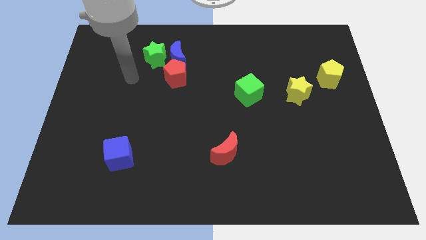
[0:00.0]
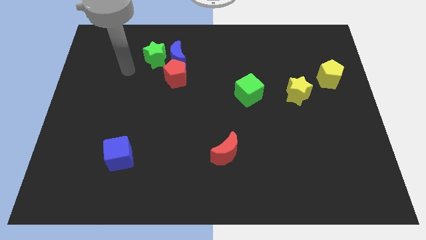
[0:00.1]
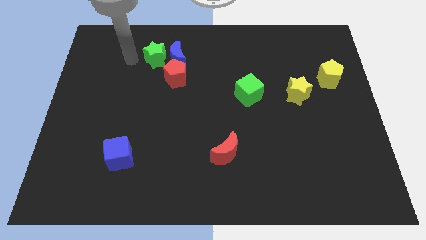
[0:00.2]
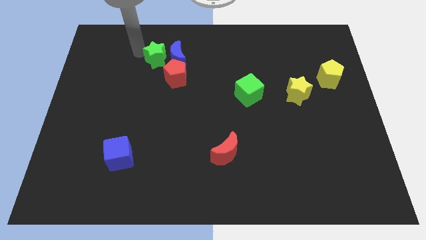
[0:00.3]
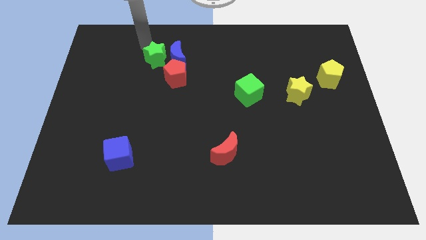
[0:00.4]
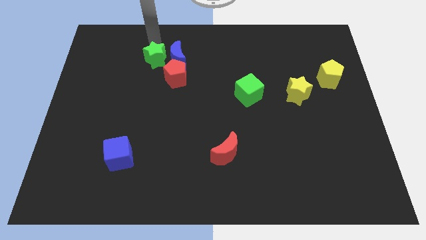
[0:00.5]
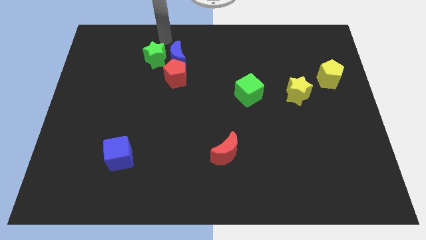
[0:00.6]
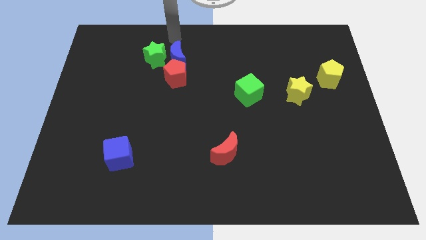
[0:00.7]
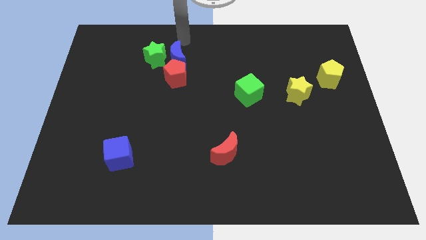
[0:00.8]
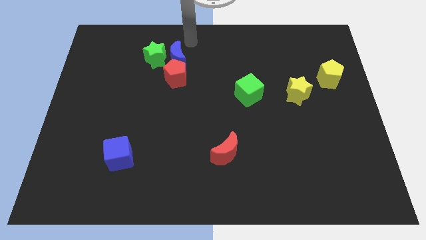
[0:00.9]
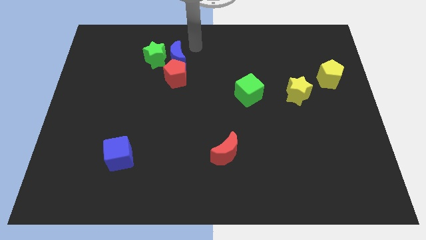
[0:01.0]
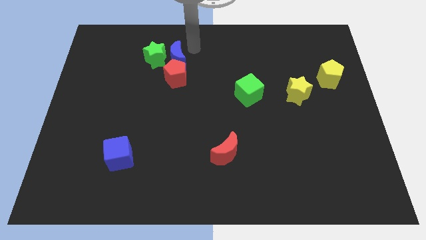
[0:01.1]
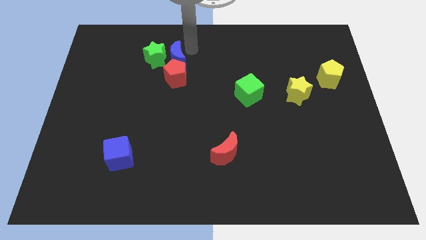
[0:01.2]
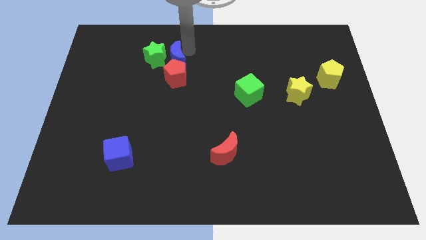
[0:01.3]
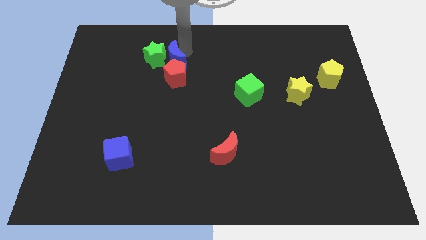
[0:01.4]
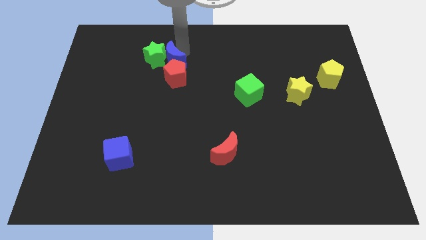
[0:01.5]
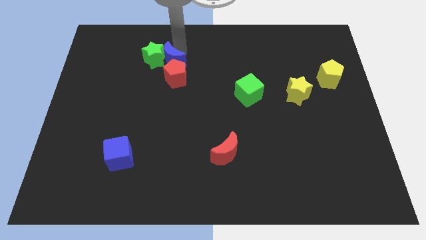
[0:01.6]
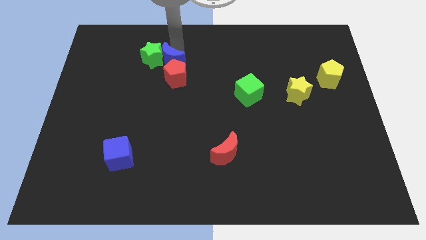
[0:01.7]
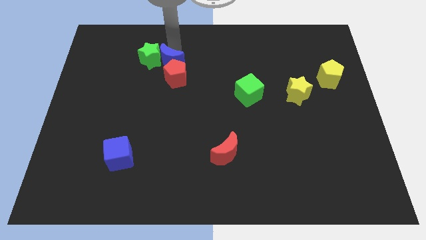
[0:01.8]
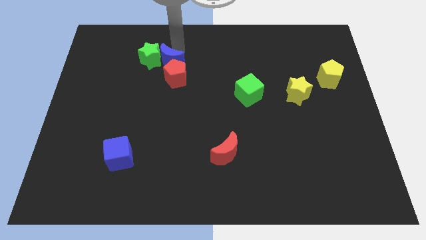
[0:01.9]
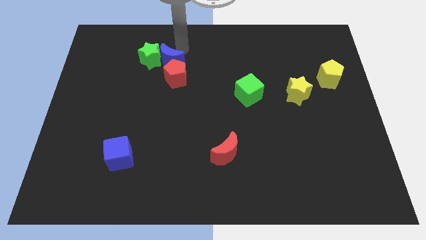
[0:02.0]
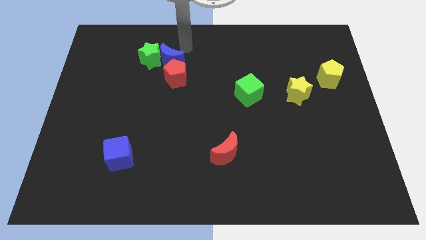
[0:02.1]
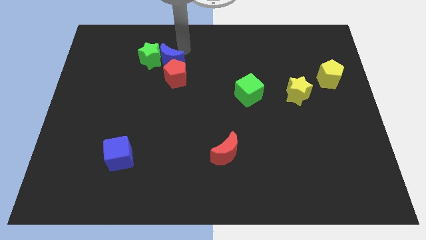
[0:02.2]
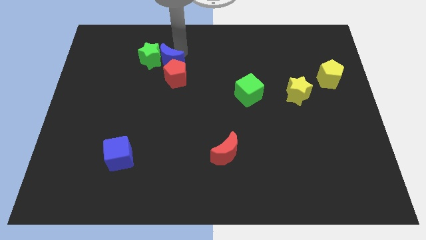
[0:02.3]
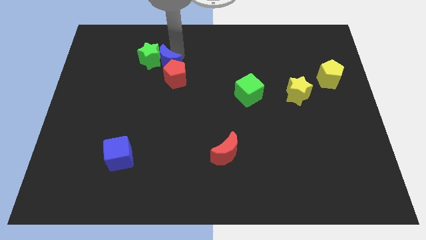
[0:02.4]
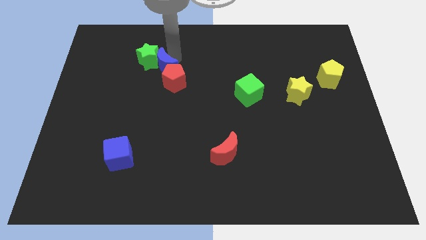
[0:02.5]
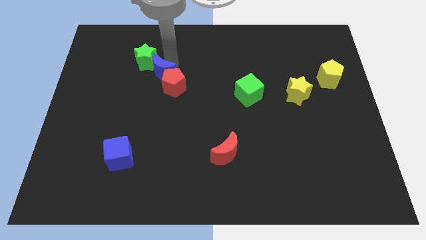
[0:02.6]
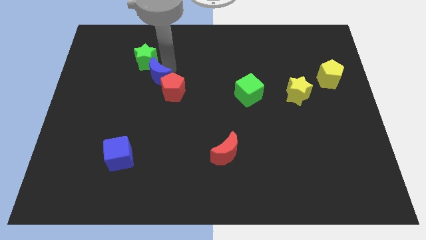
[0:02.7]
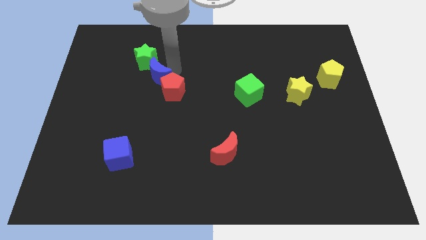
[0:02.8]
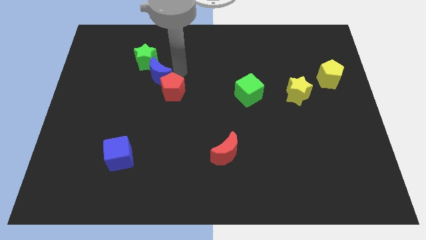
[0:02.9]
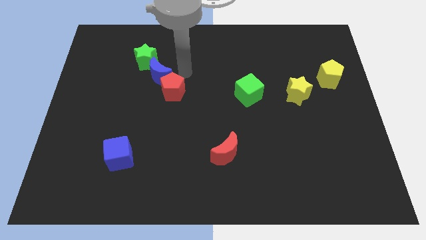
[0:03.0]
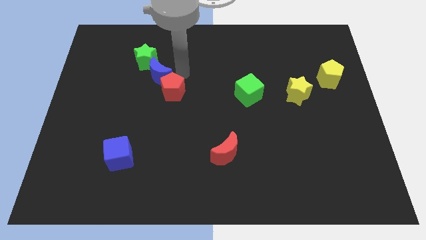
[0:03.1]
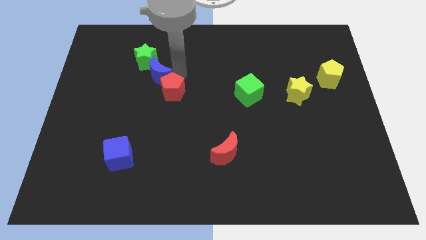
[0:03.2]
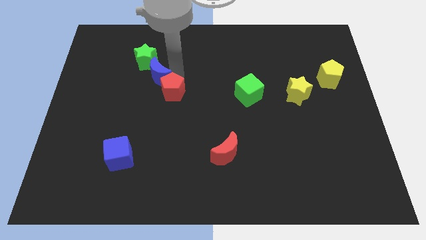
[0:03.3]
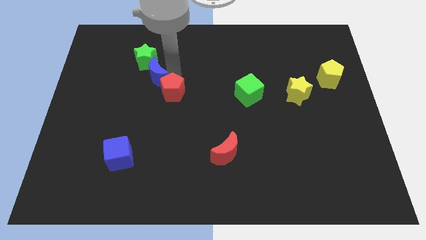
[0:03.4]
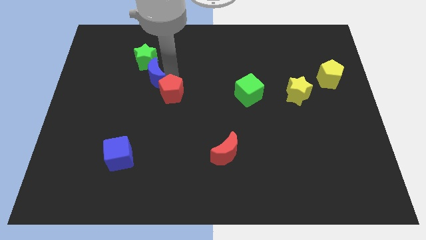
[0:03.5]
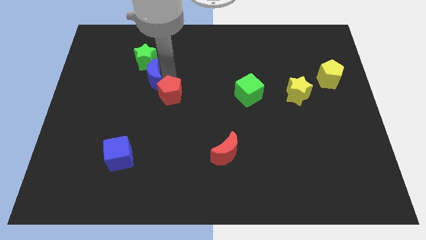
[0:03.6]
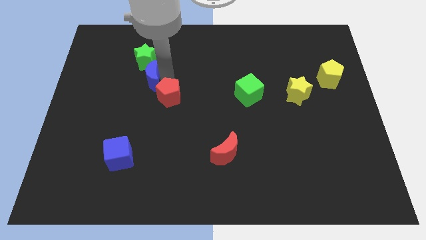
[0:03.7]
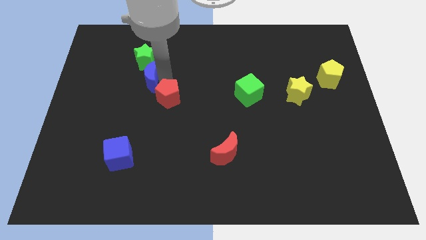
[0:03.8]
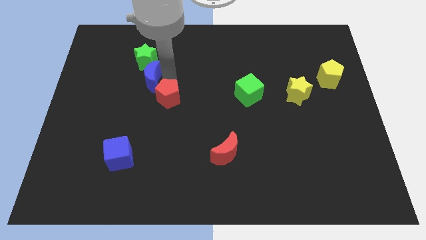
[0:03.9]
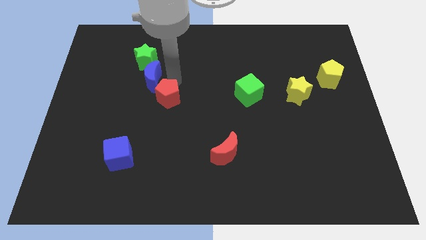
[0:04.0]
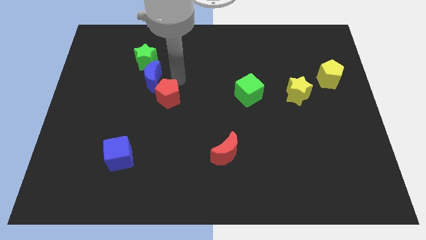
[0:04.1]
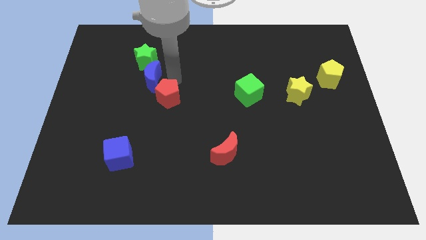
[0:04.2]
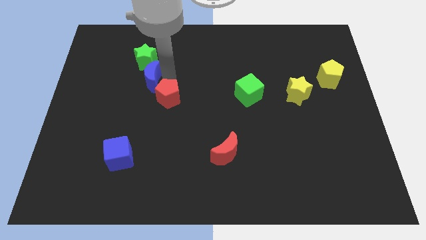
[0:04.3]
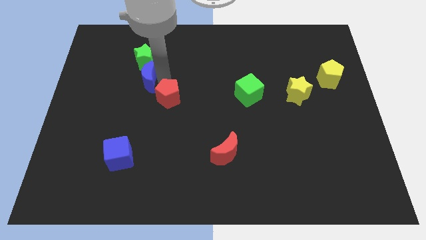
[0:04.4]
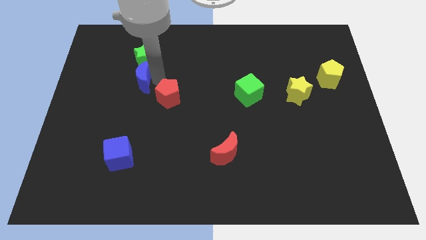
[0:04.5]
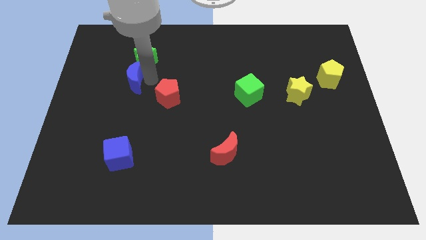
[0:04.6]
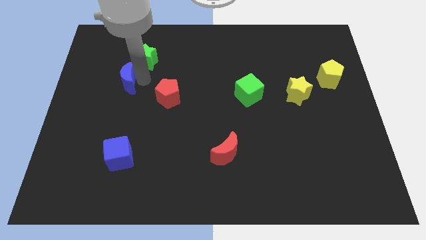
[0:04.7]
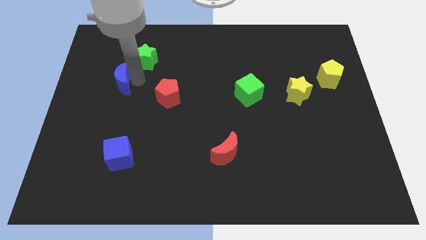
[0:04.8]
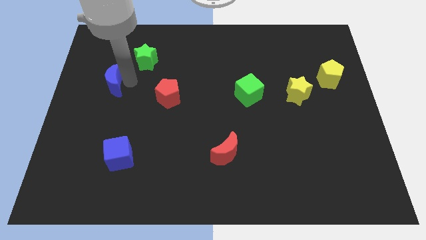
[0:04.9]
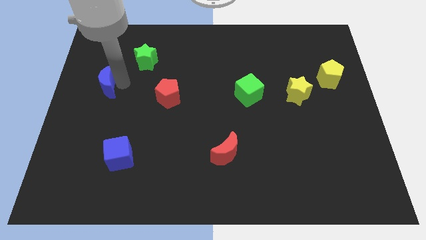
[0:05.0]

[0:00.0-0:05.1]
put the blue moon to the left side of the board
